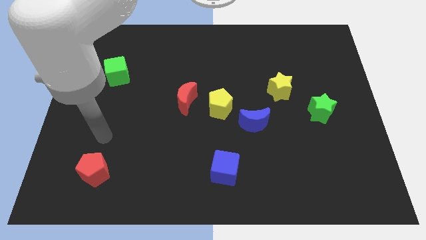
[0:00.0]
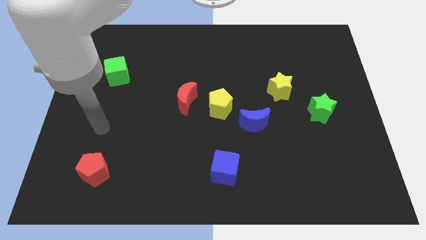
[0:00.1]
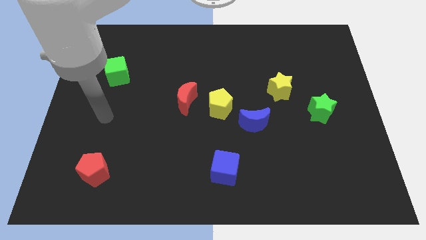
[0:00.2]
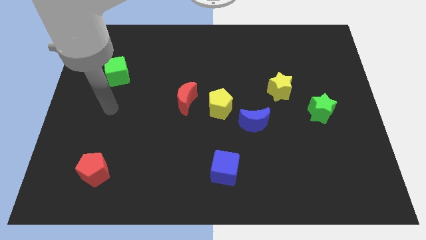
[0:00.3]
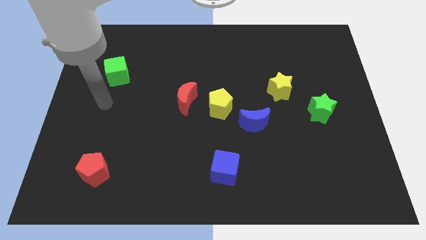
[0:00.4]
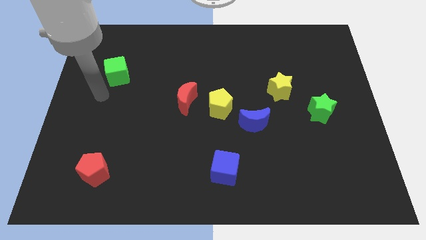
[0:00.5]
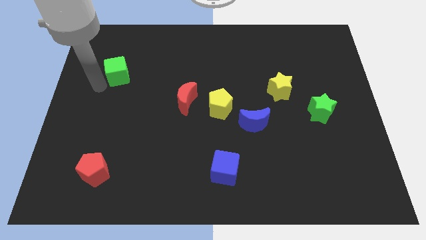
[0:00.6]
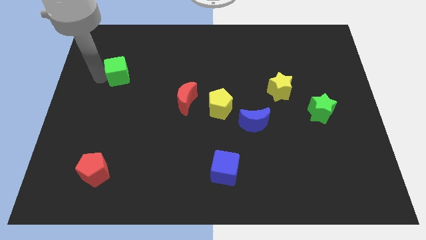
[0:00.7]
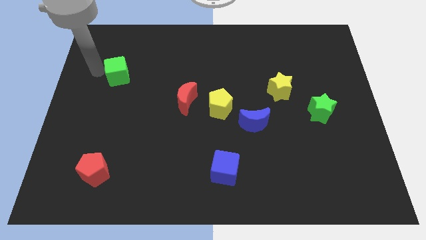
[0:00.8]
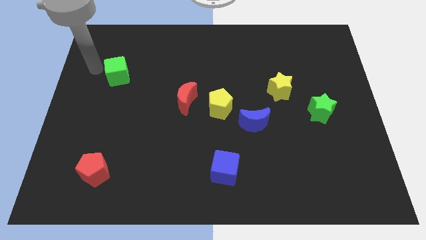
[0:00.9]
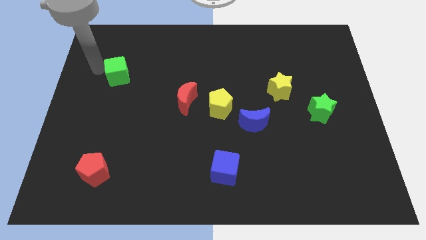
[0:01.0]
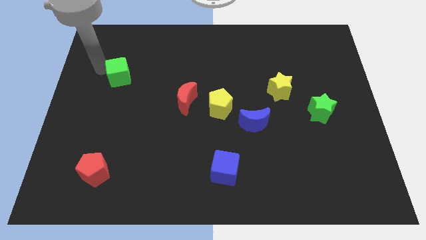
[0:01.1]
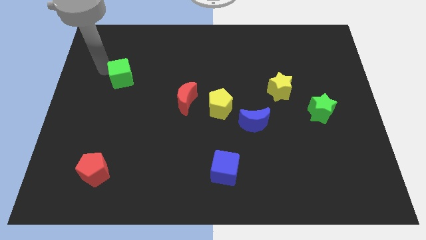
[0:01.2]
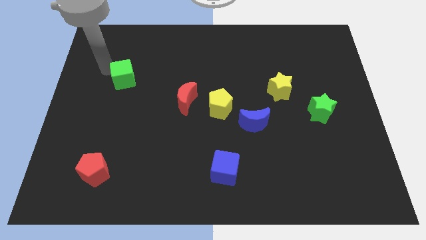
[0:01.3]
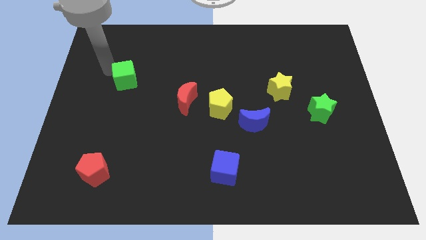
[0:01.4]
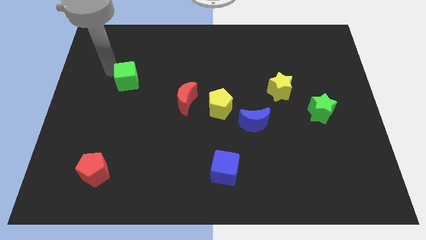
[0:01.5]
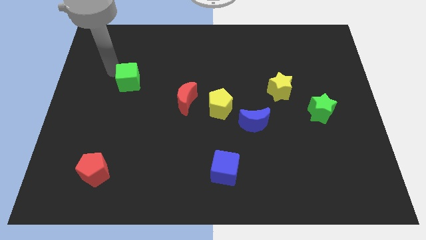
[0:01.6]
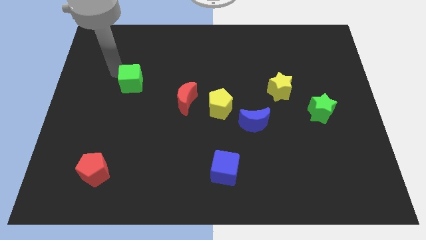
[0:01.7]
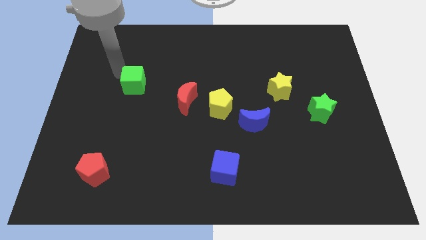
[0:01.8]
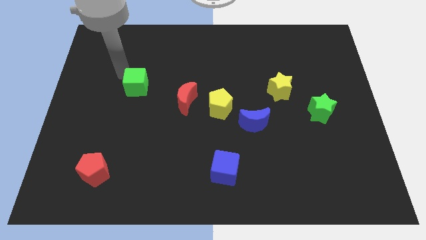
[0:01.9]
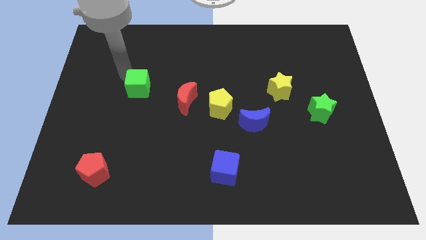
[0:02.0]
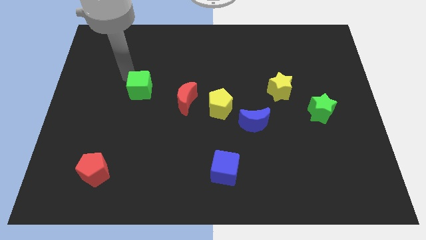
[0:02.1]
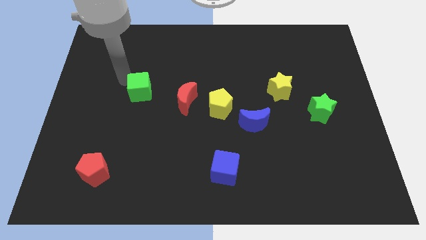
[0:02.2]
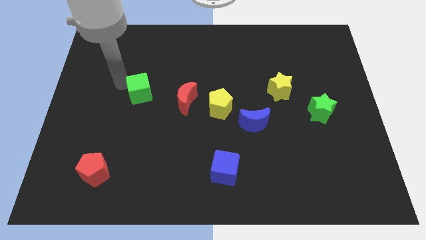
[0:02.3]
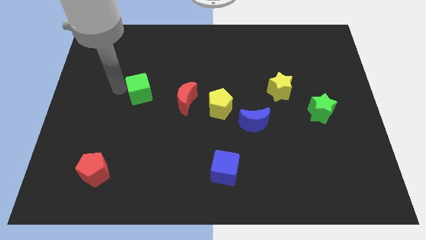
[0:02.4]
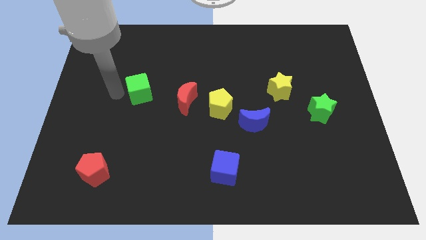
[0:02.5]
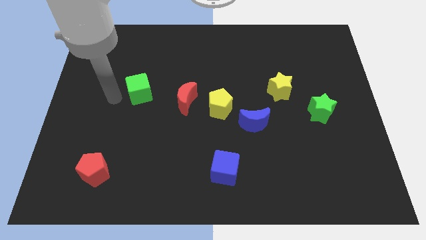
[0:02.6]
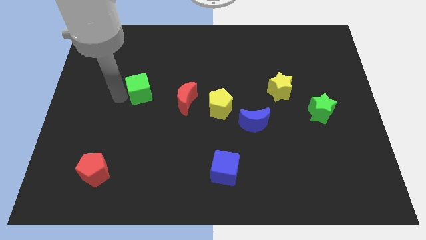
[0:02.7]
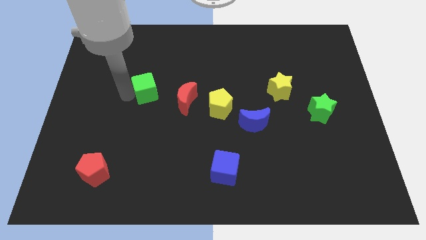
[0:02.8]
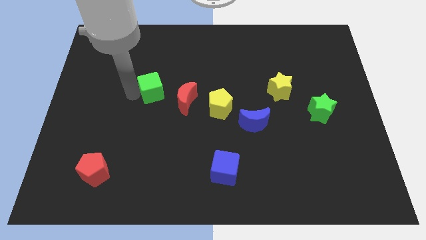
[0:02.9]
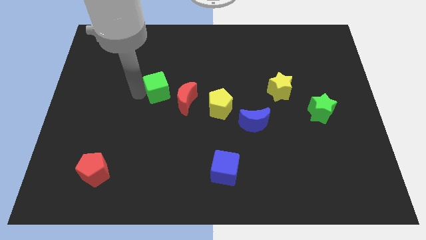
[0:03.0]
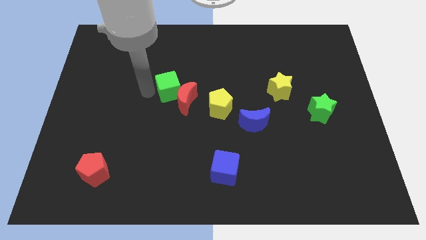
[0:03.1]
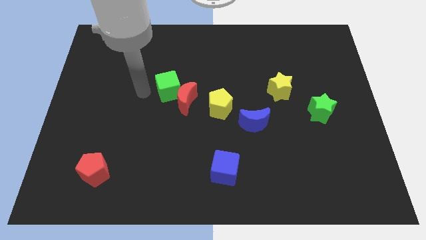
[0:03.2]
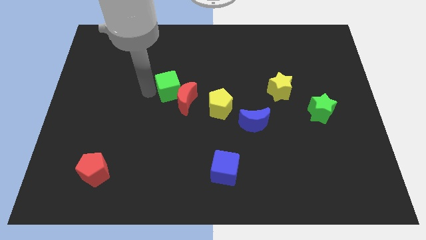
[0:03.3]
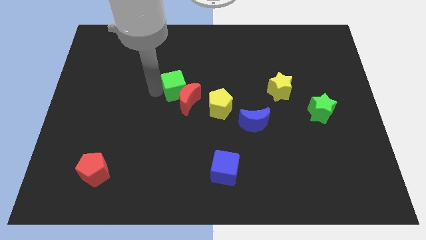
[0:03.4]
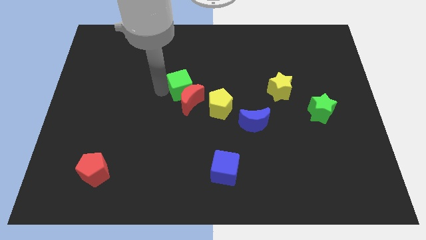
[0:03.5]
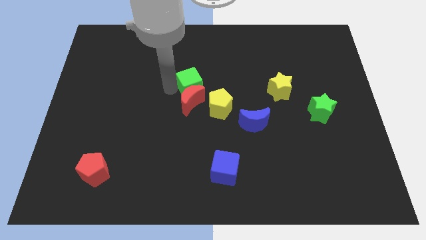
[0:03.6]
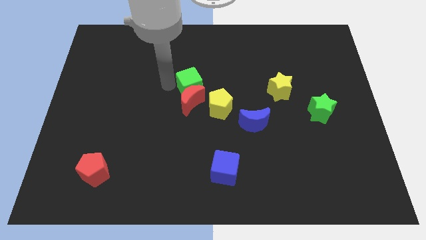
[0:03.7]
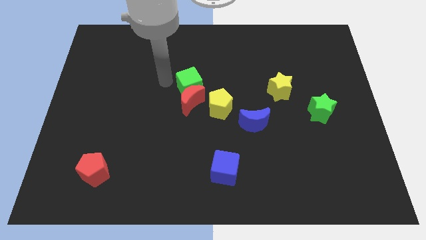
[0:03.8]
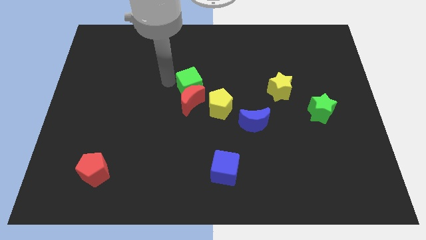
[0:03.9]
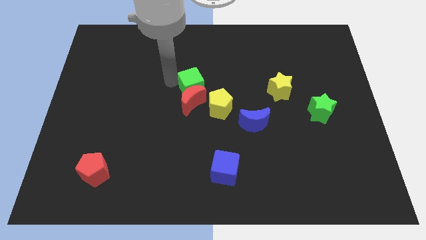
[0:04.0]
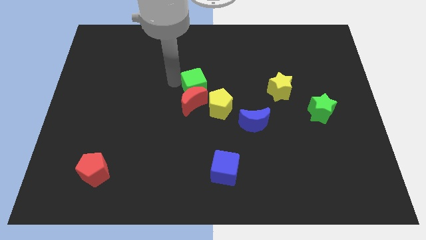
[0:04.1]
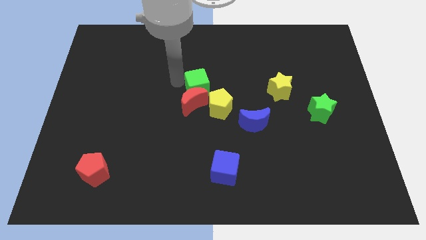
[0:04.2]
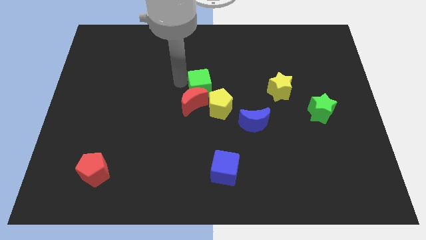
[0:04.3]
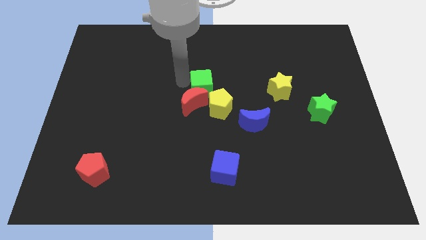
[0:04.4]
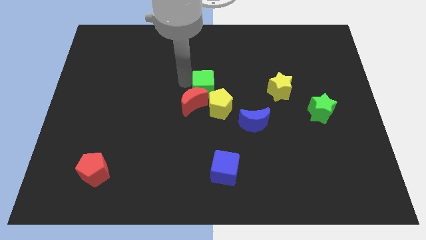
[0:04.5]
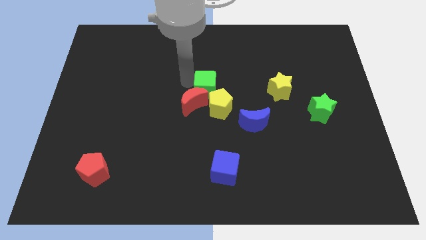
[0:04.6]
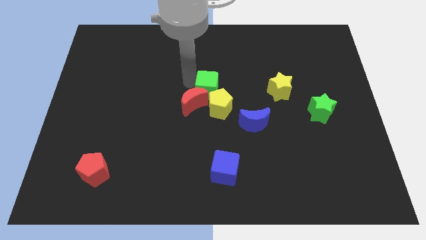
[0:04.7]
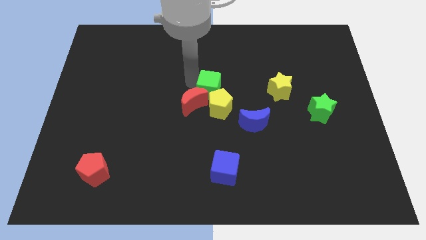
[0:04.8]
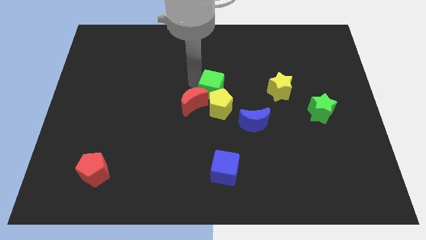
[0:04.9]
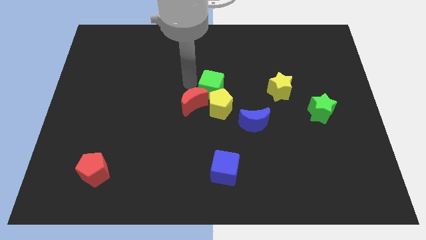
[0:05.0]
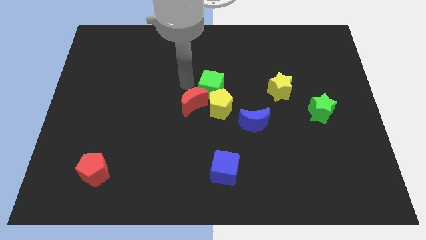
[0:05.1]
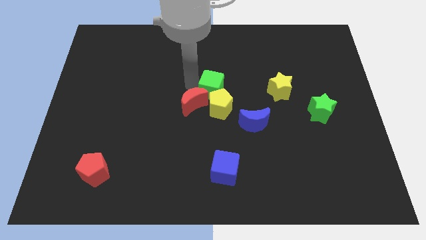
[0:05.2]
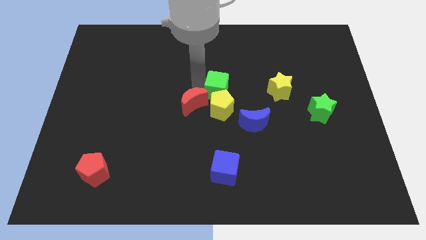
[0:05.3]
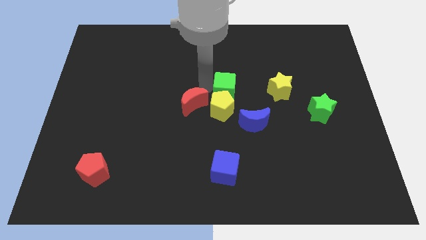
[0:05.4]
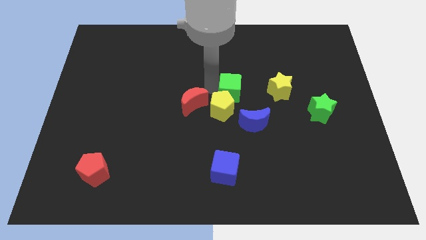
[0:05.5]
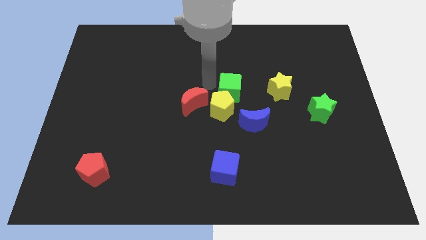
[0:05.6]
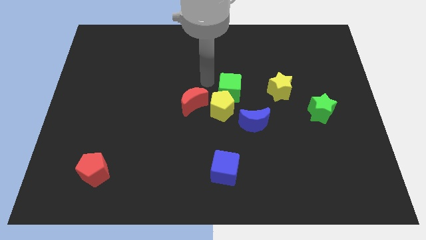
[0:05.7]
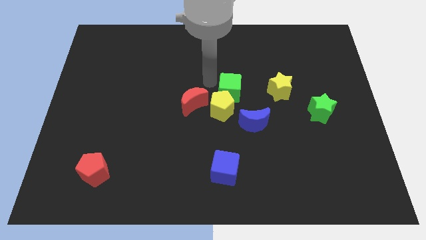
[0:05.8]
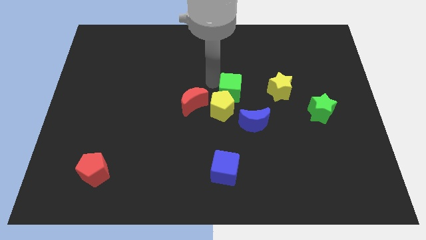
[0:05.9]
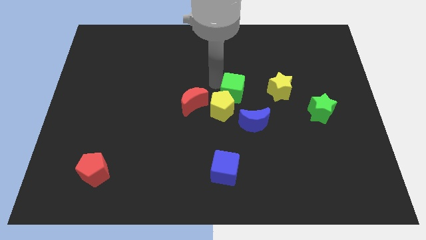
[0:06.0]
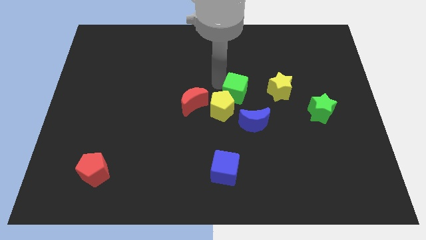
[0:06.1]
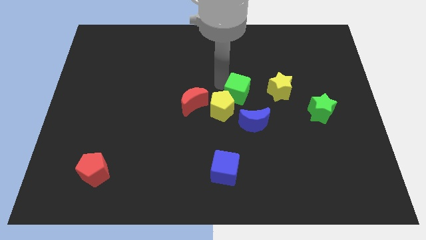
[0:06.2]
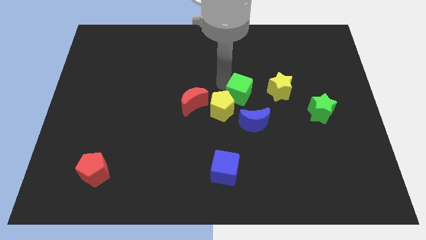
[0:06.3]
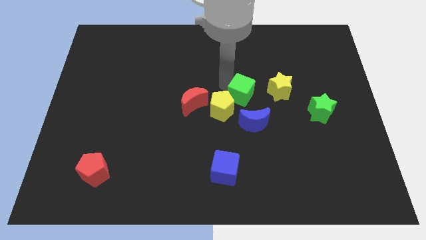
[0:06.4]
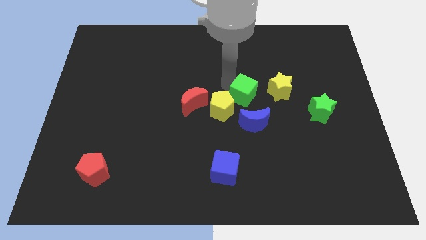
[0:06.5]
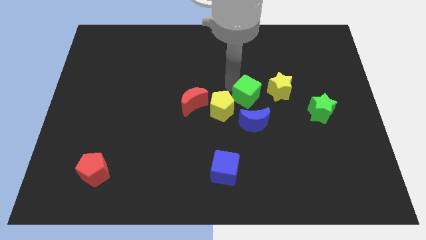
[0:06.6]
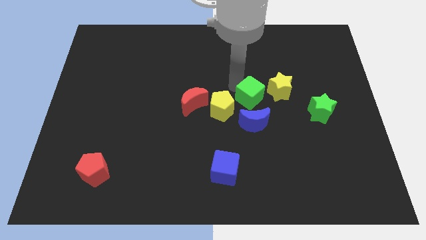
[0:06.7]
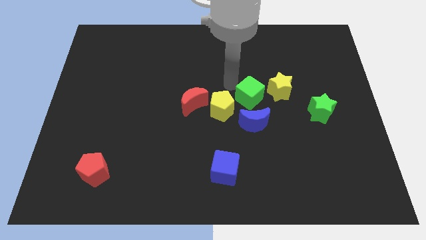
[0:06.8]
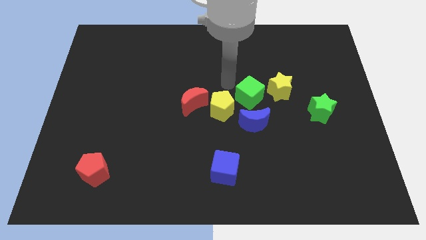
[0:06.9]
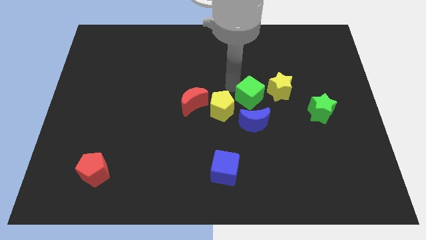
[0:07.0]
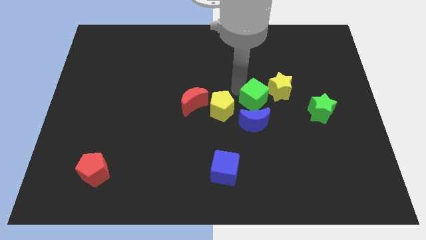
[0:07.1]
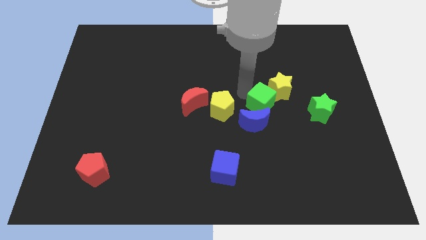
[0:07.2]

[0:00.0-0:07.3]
put the green cube left of the green star
